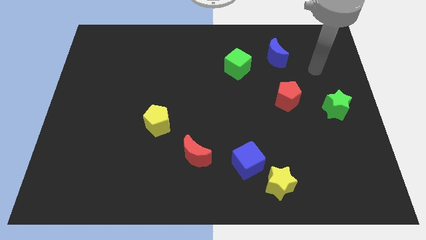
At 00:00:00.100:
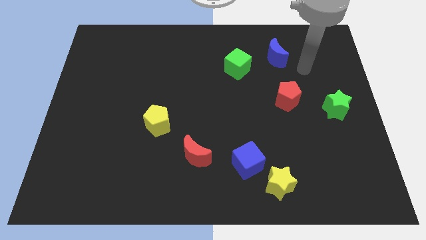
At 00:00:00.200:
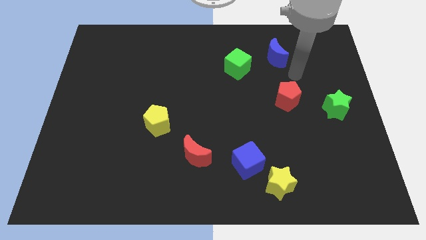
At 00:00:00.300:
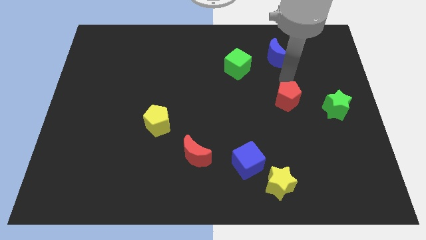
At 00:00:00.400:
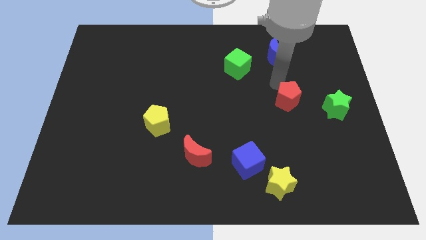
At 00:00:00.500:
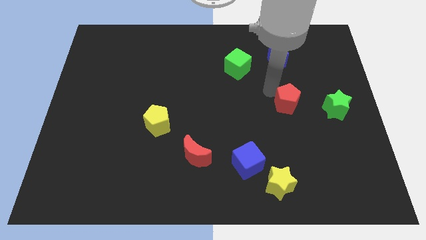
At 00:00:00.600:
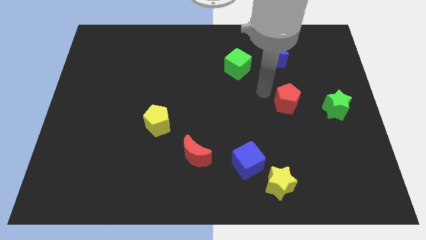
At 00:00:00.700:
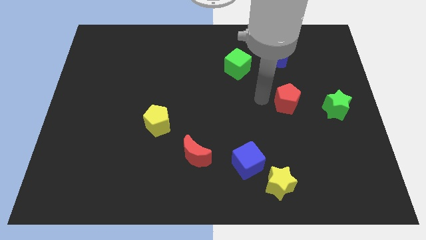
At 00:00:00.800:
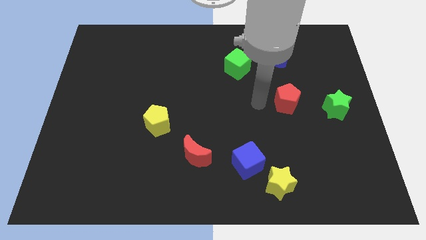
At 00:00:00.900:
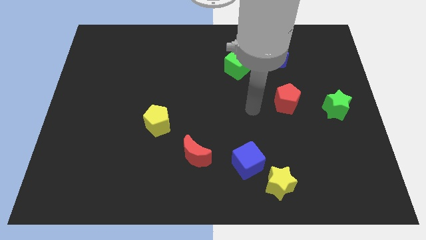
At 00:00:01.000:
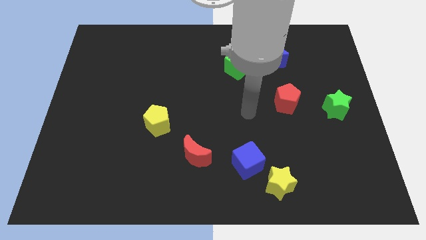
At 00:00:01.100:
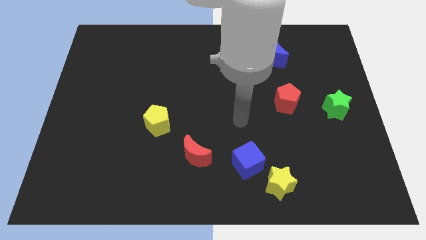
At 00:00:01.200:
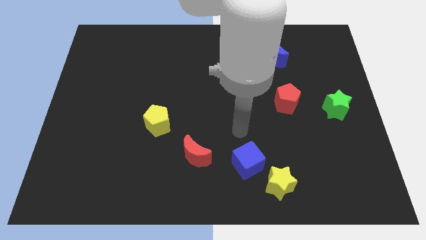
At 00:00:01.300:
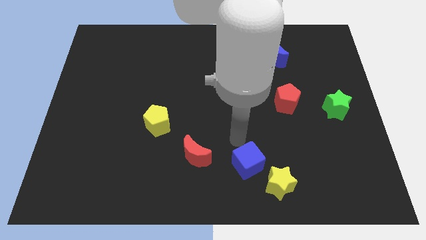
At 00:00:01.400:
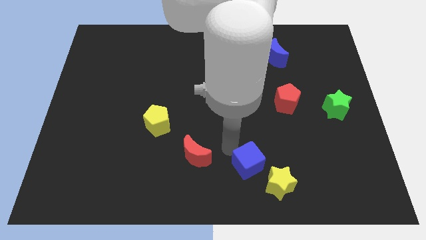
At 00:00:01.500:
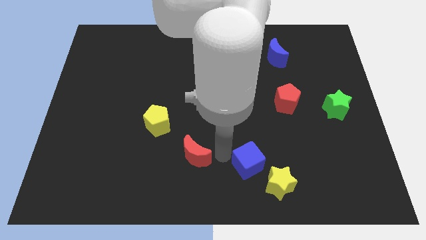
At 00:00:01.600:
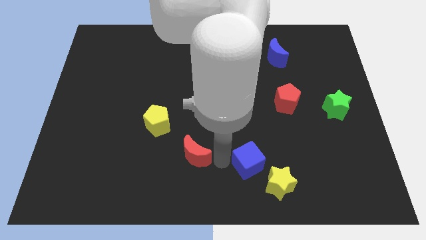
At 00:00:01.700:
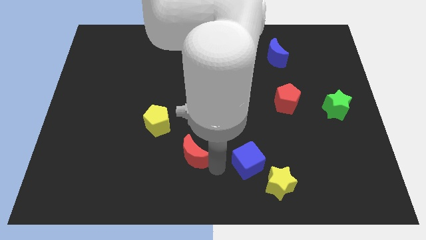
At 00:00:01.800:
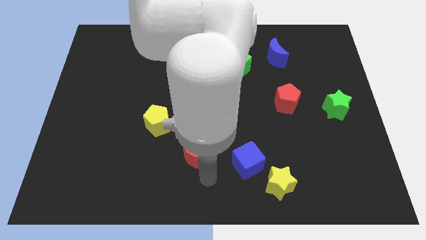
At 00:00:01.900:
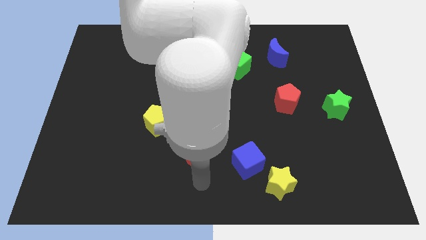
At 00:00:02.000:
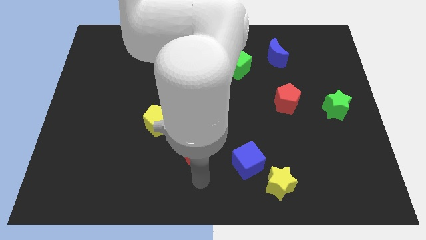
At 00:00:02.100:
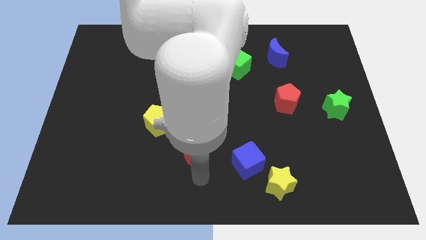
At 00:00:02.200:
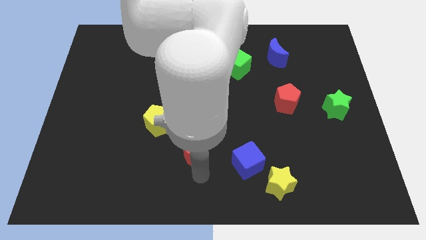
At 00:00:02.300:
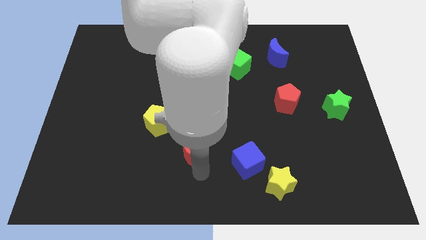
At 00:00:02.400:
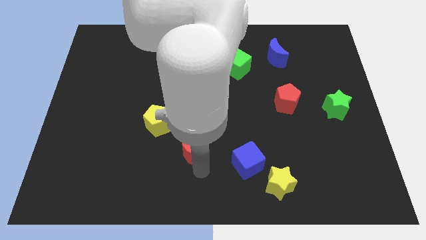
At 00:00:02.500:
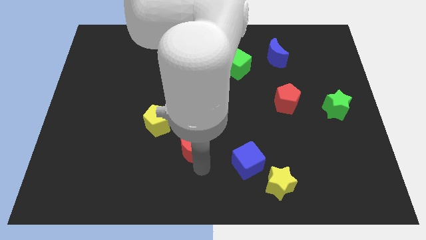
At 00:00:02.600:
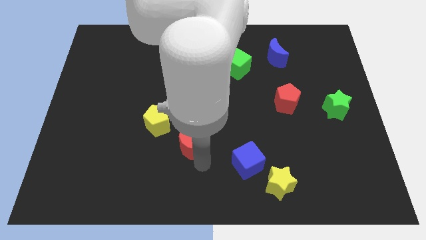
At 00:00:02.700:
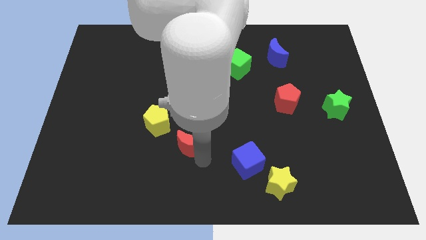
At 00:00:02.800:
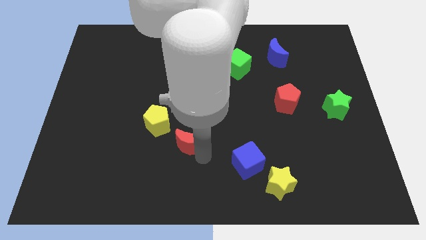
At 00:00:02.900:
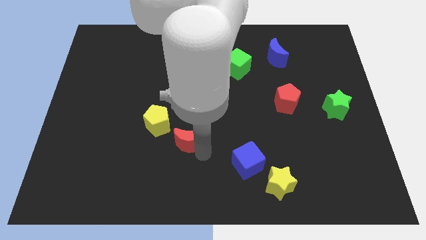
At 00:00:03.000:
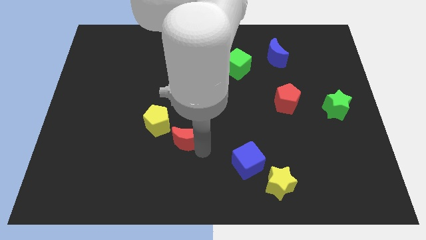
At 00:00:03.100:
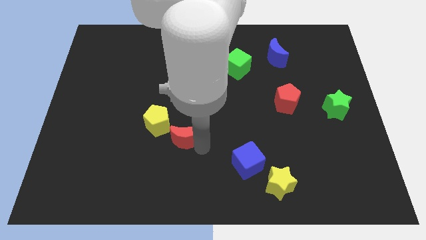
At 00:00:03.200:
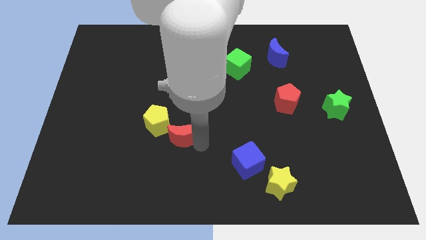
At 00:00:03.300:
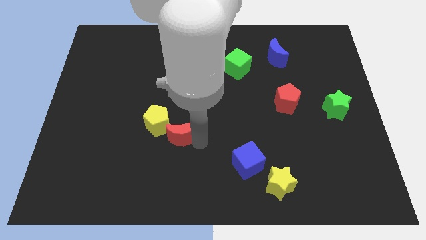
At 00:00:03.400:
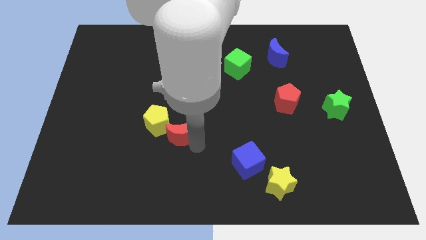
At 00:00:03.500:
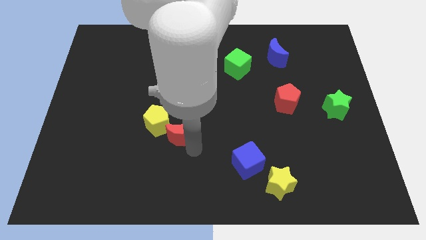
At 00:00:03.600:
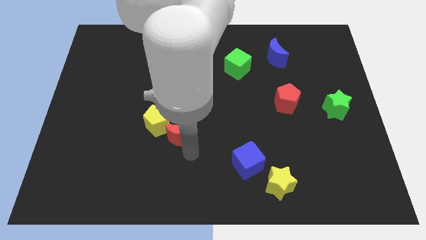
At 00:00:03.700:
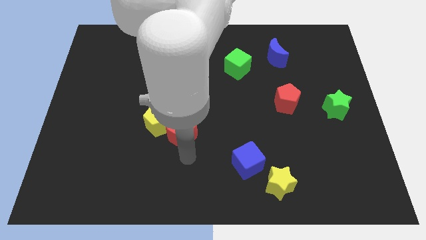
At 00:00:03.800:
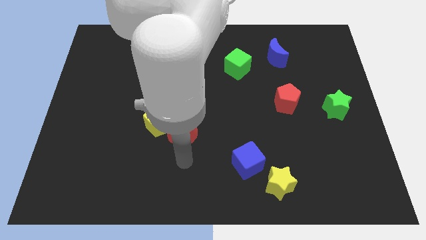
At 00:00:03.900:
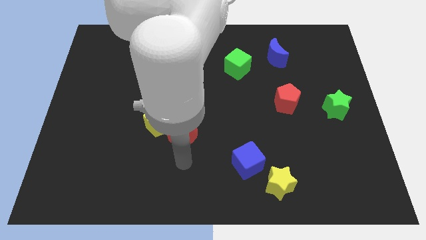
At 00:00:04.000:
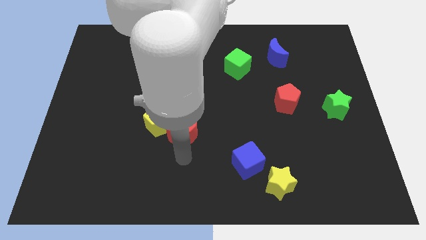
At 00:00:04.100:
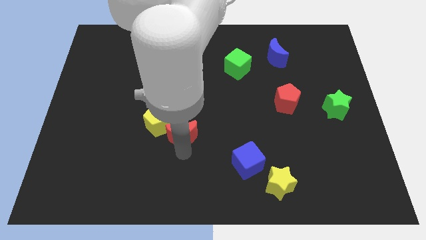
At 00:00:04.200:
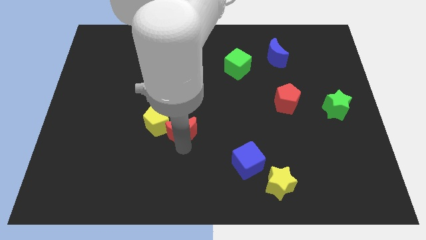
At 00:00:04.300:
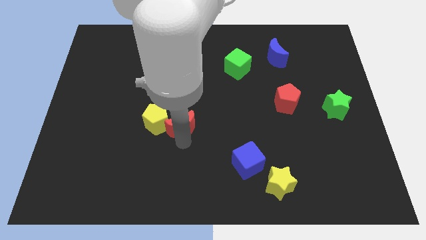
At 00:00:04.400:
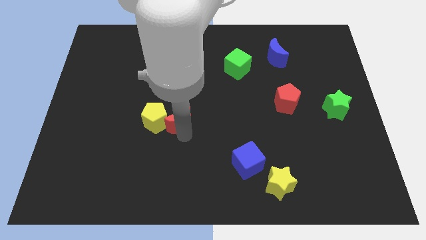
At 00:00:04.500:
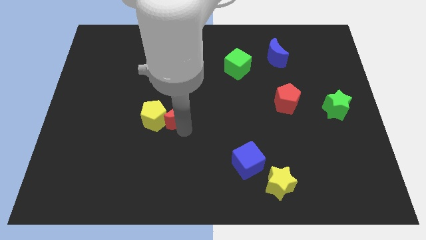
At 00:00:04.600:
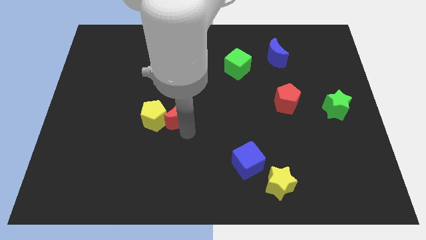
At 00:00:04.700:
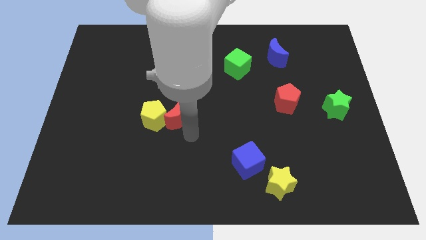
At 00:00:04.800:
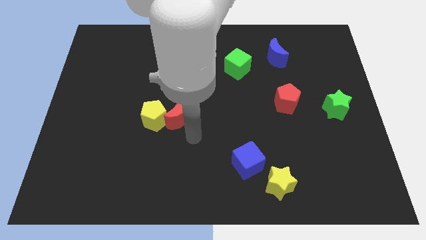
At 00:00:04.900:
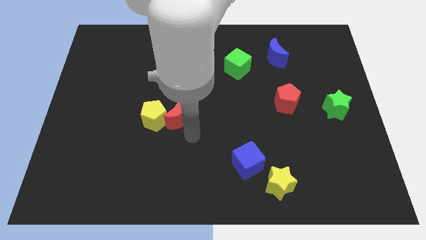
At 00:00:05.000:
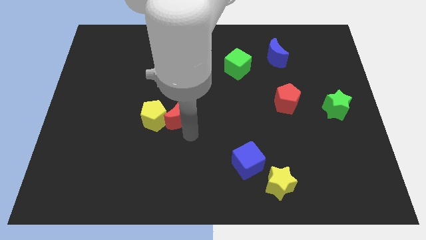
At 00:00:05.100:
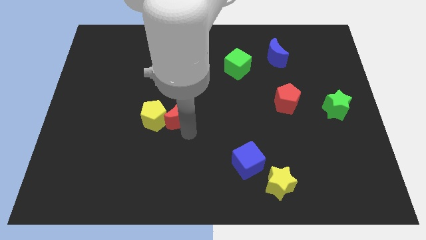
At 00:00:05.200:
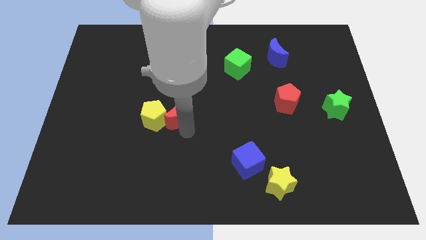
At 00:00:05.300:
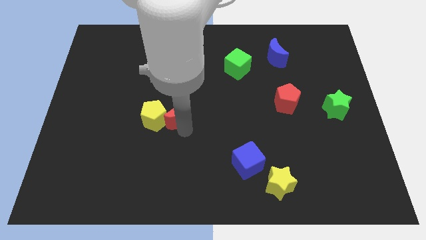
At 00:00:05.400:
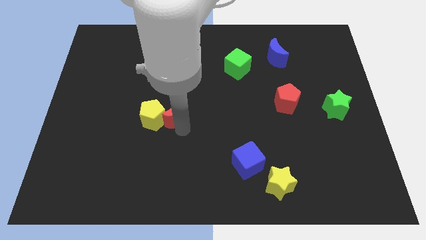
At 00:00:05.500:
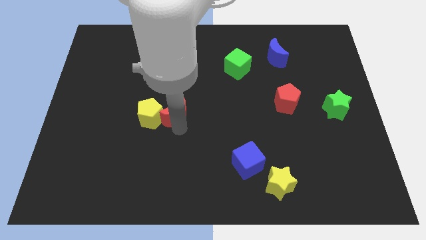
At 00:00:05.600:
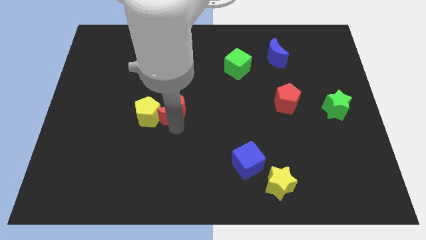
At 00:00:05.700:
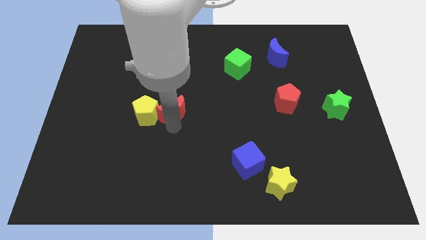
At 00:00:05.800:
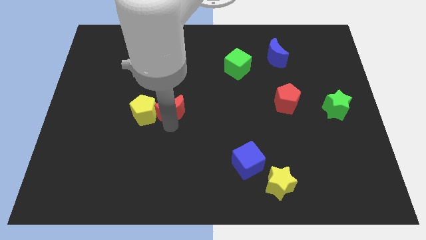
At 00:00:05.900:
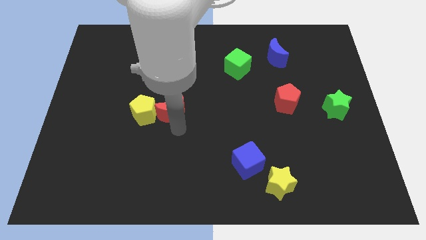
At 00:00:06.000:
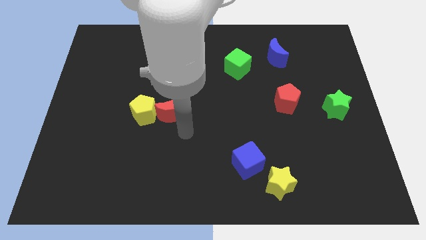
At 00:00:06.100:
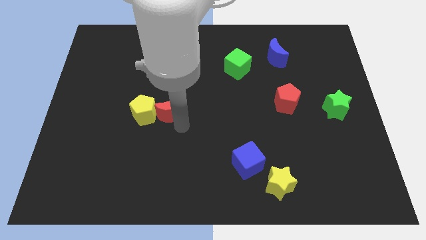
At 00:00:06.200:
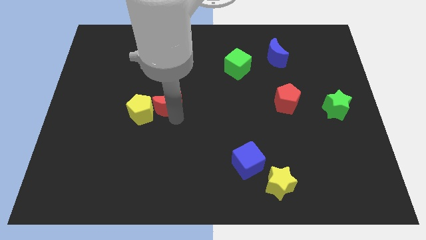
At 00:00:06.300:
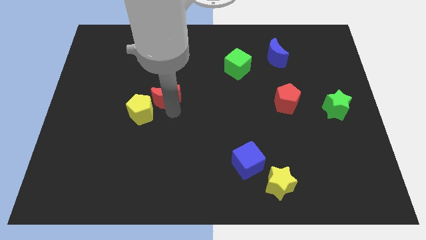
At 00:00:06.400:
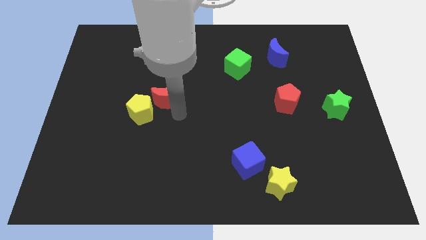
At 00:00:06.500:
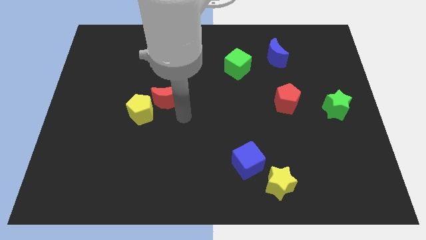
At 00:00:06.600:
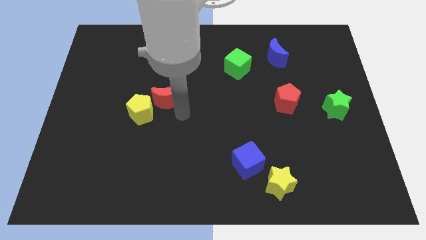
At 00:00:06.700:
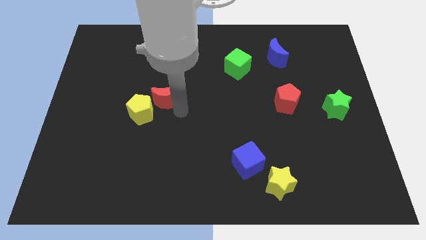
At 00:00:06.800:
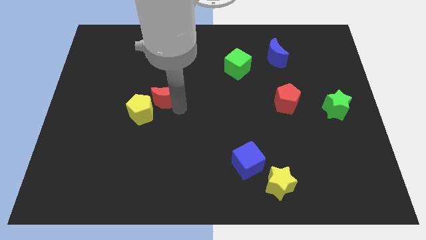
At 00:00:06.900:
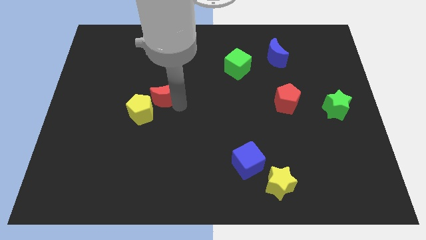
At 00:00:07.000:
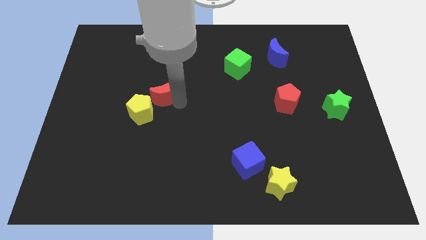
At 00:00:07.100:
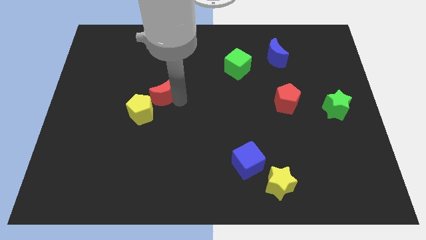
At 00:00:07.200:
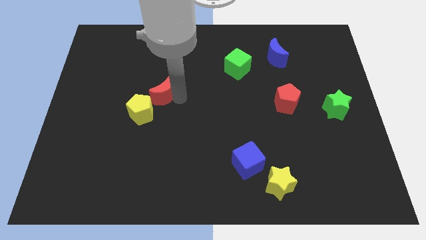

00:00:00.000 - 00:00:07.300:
put the red moon to the top side of the yellow pentagon
